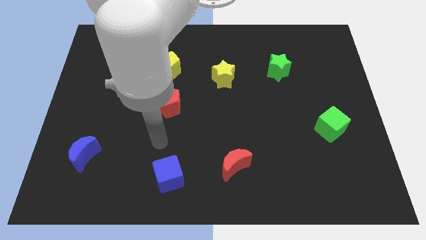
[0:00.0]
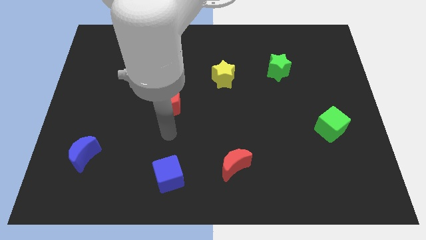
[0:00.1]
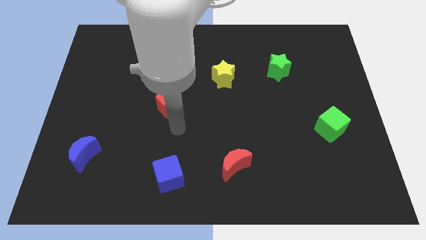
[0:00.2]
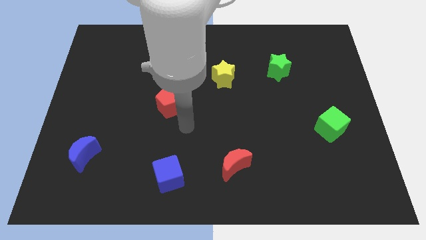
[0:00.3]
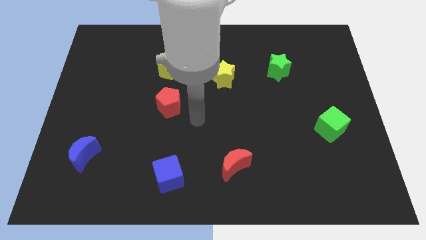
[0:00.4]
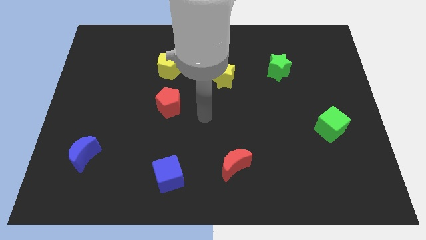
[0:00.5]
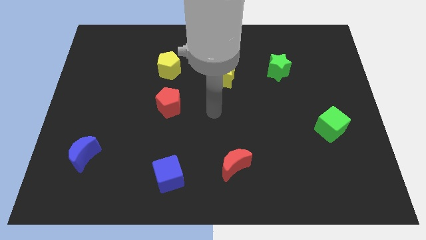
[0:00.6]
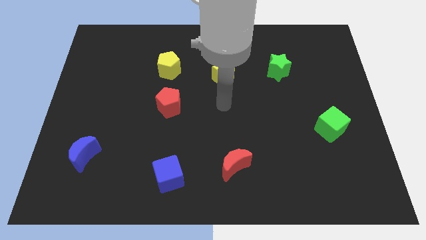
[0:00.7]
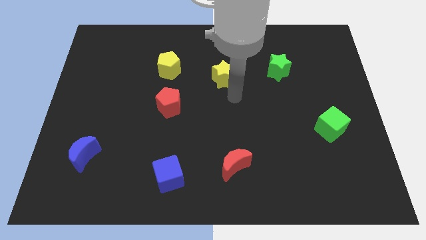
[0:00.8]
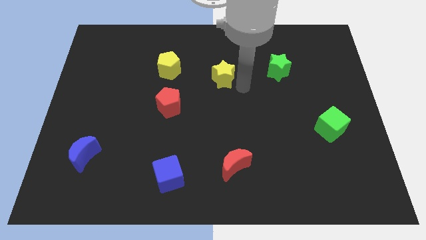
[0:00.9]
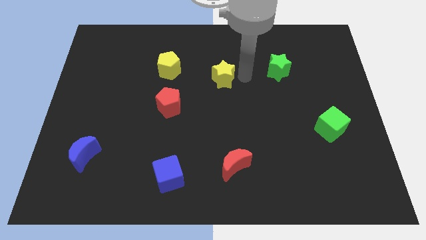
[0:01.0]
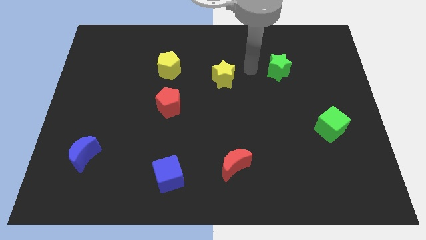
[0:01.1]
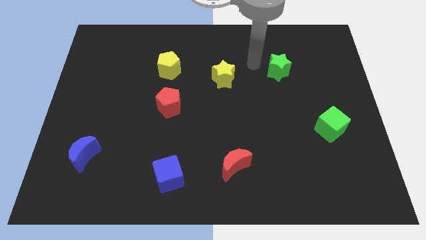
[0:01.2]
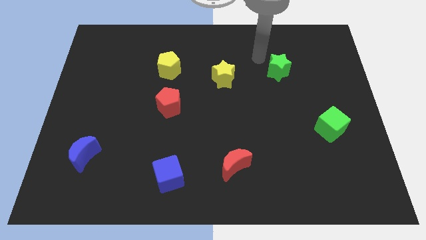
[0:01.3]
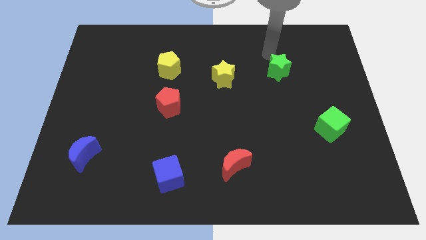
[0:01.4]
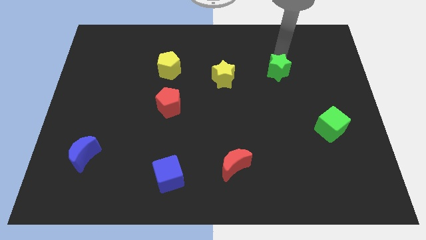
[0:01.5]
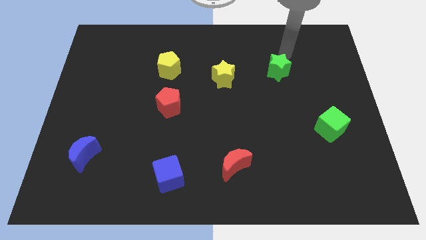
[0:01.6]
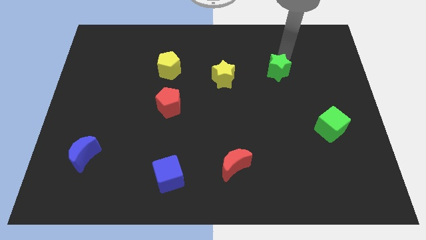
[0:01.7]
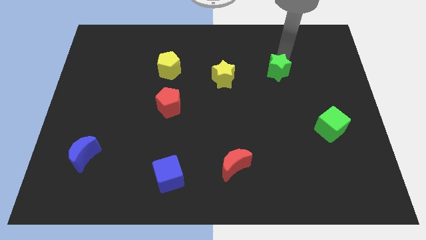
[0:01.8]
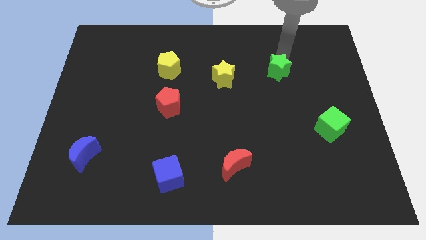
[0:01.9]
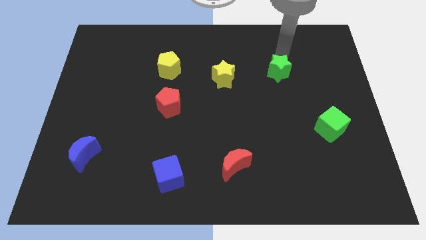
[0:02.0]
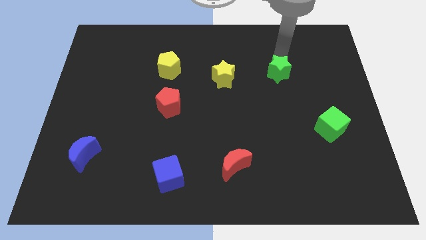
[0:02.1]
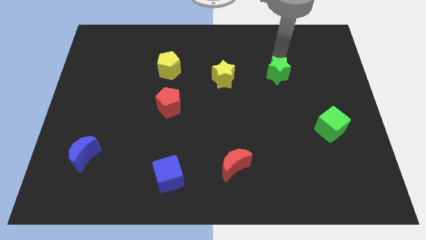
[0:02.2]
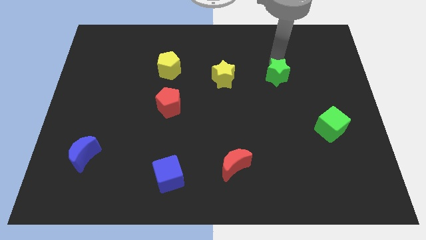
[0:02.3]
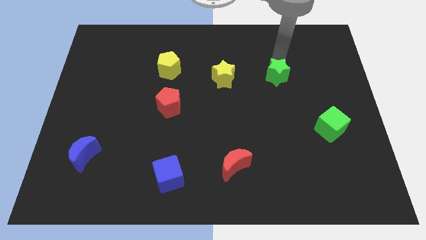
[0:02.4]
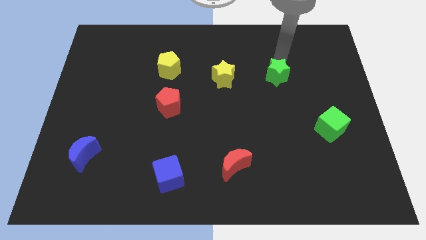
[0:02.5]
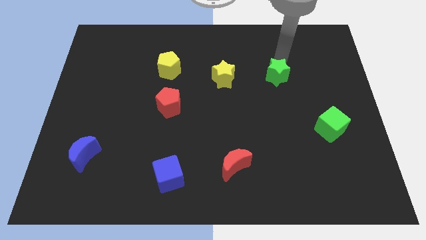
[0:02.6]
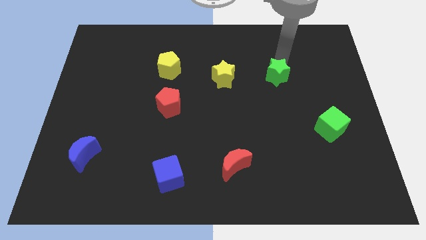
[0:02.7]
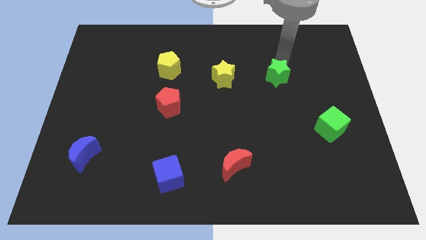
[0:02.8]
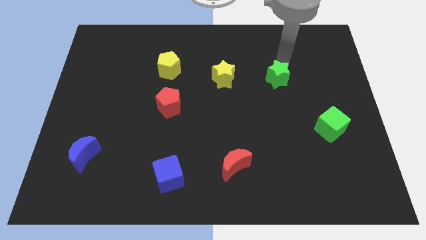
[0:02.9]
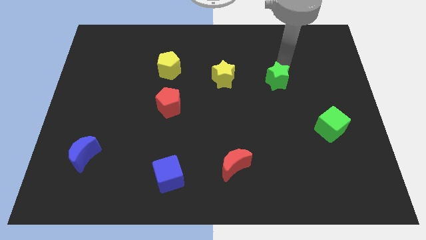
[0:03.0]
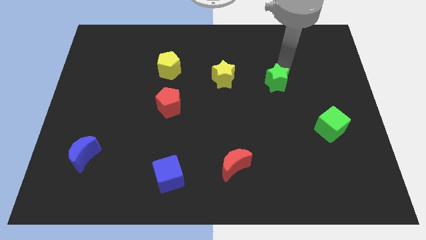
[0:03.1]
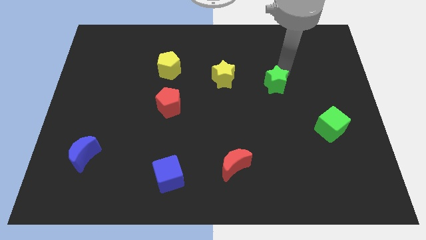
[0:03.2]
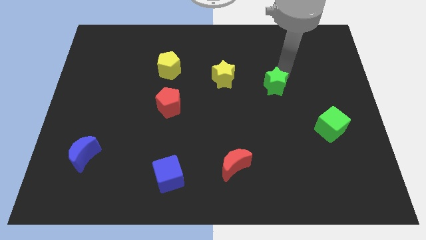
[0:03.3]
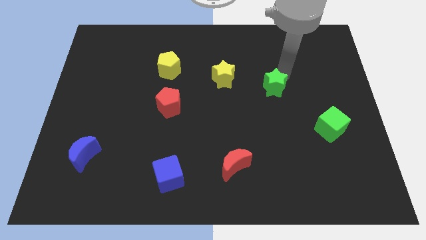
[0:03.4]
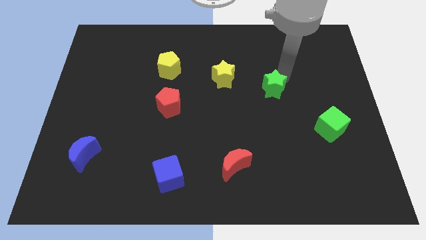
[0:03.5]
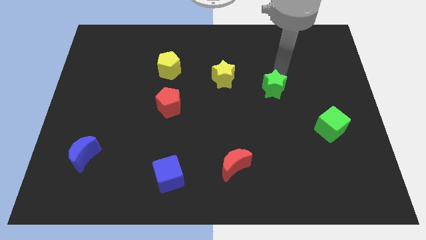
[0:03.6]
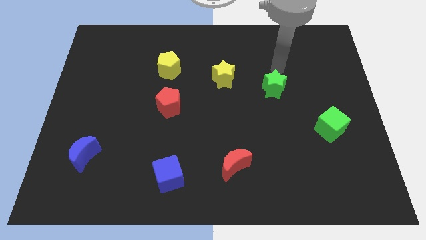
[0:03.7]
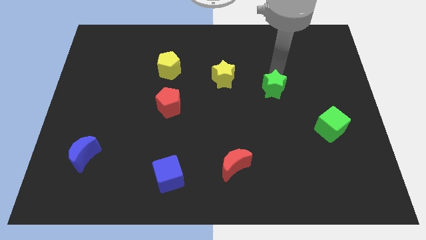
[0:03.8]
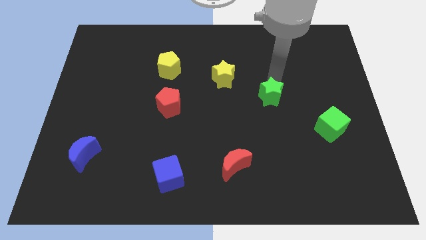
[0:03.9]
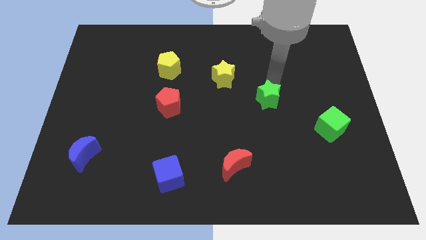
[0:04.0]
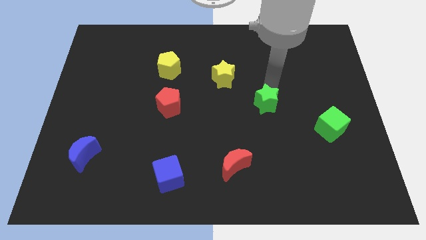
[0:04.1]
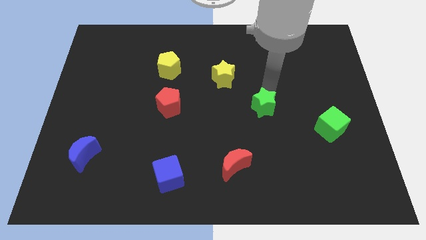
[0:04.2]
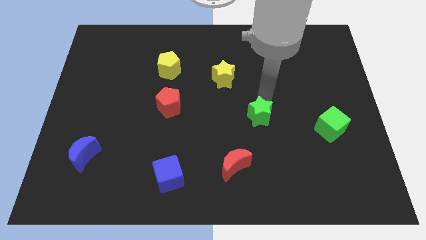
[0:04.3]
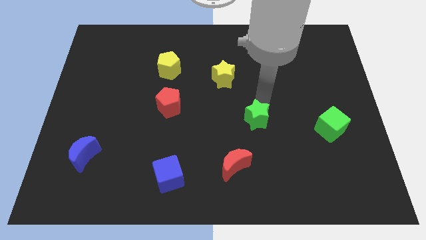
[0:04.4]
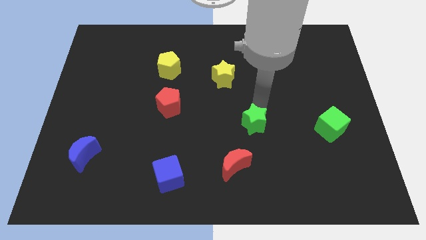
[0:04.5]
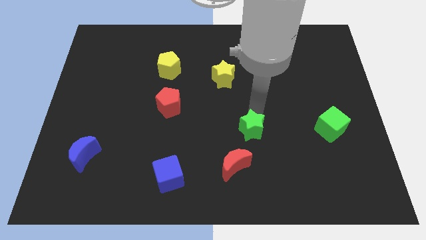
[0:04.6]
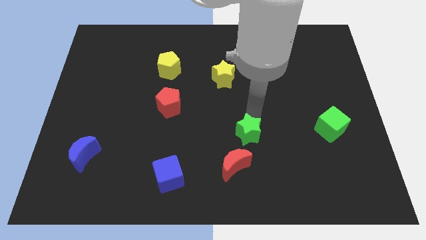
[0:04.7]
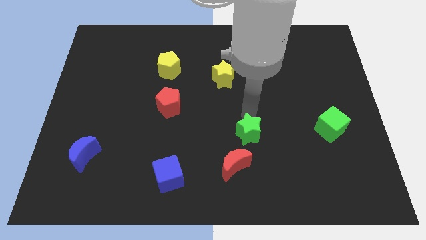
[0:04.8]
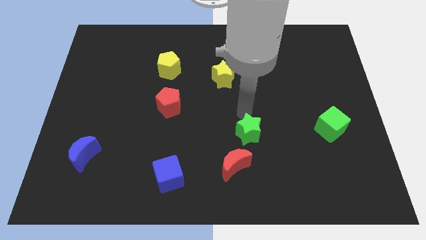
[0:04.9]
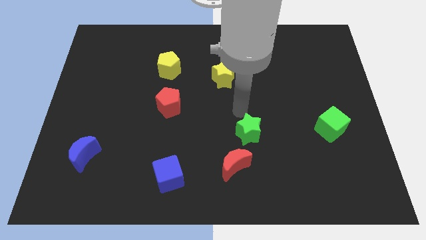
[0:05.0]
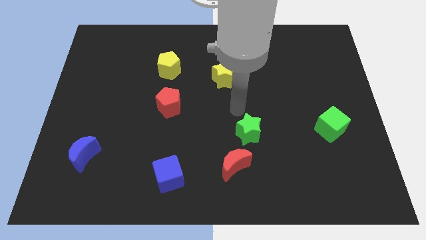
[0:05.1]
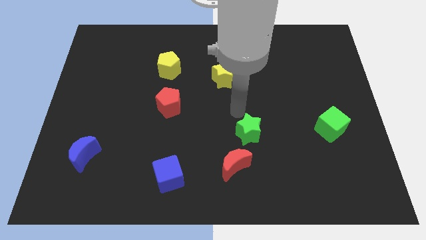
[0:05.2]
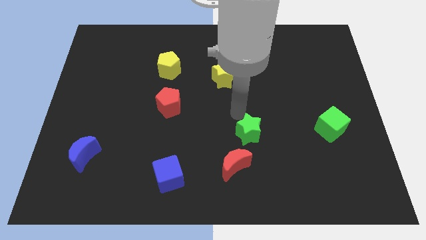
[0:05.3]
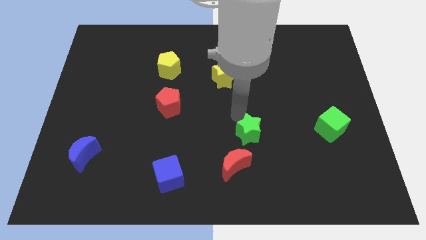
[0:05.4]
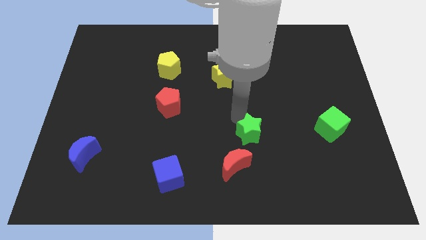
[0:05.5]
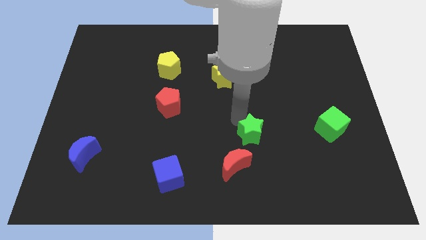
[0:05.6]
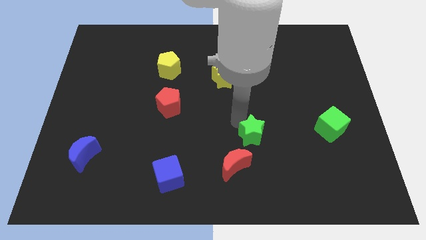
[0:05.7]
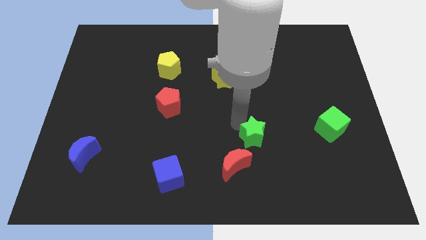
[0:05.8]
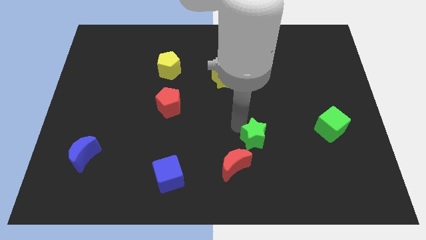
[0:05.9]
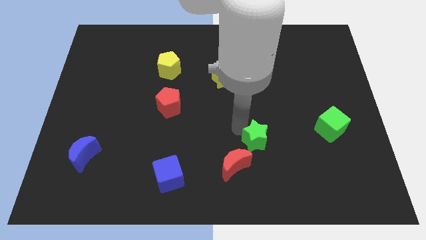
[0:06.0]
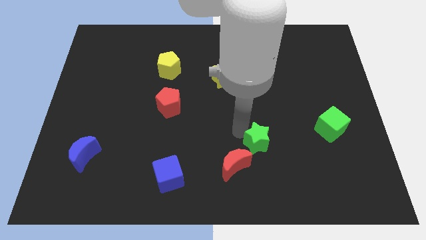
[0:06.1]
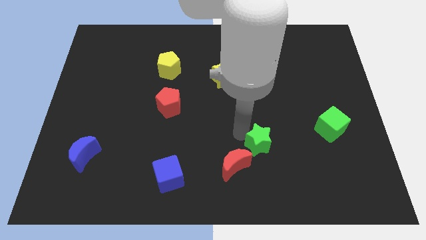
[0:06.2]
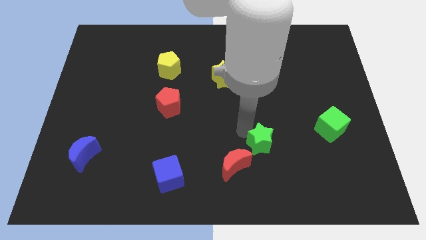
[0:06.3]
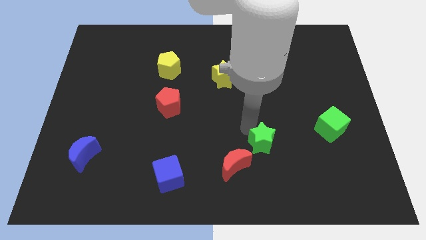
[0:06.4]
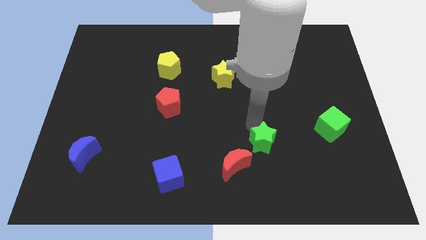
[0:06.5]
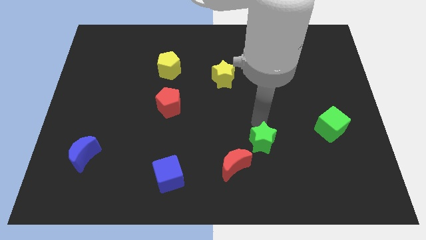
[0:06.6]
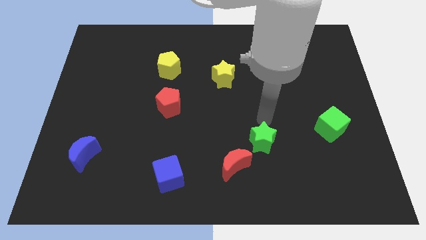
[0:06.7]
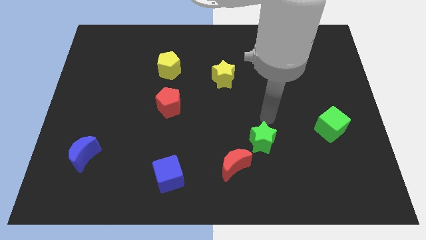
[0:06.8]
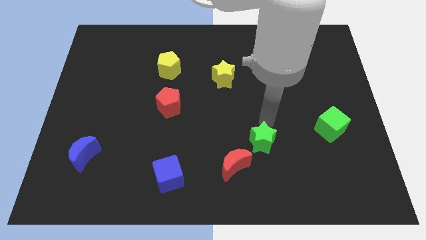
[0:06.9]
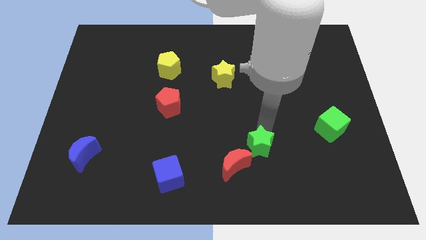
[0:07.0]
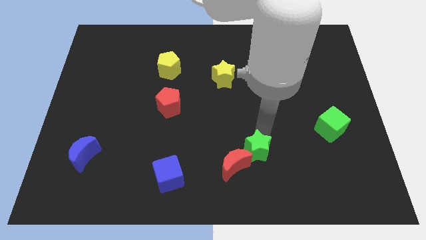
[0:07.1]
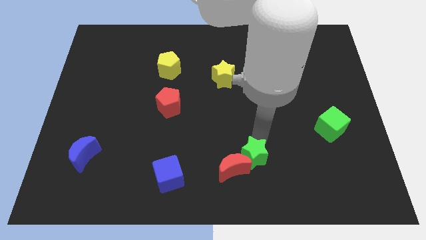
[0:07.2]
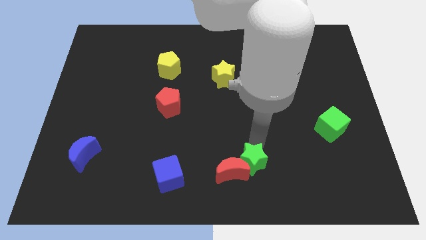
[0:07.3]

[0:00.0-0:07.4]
push the green star to the bottom side
